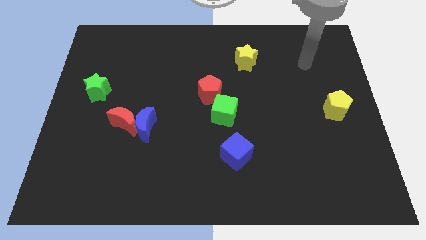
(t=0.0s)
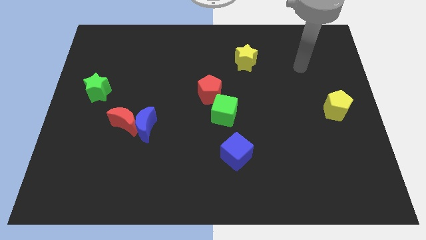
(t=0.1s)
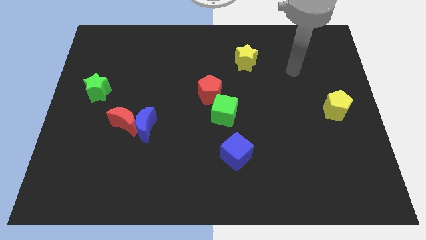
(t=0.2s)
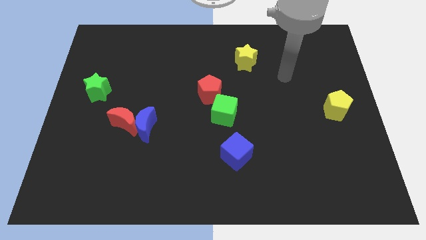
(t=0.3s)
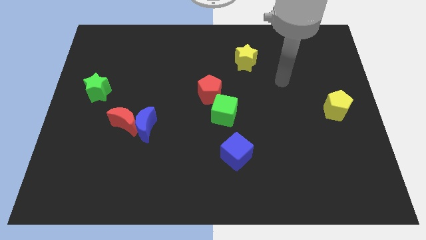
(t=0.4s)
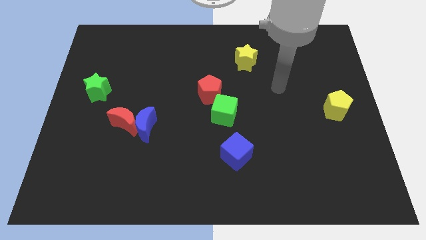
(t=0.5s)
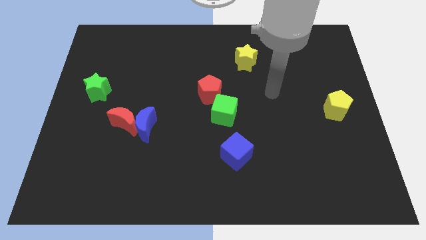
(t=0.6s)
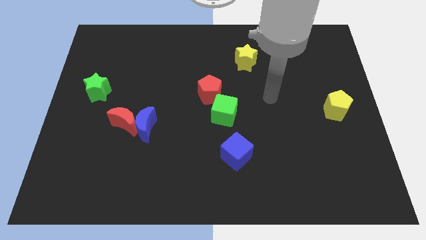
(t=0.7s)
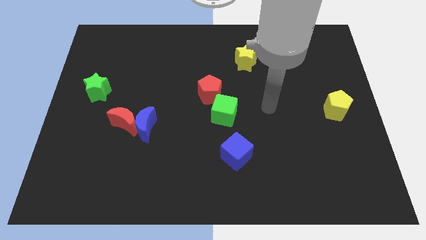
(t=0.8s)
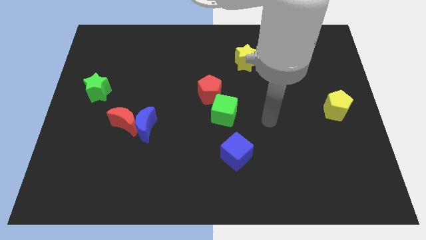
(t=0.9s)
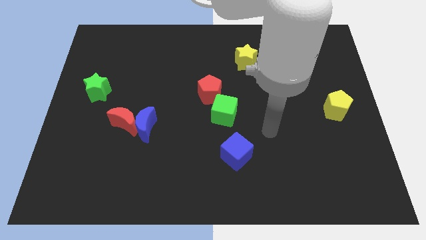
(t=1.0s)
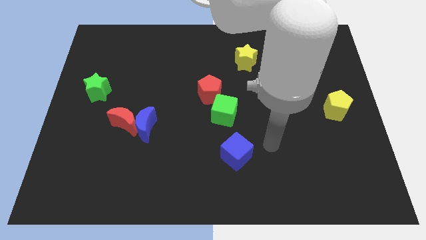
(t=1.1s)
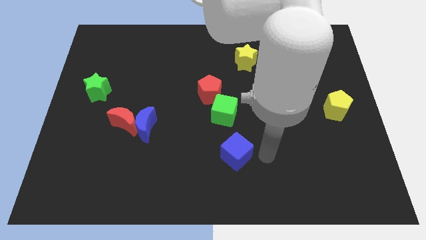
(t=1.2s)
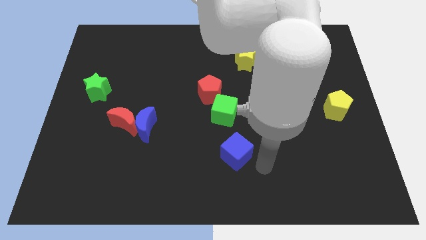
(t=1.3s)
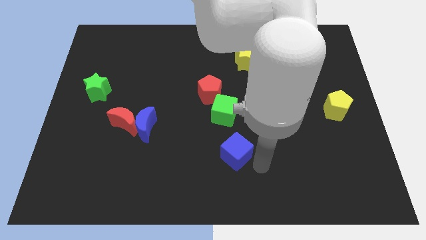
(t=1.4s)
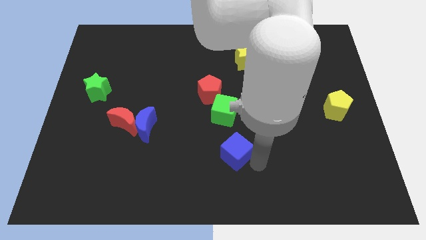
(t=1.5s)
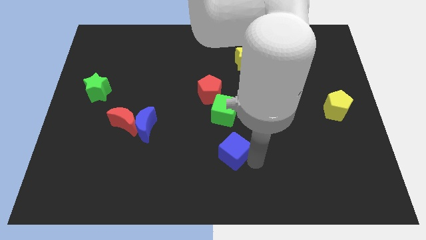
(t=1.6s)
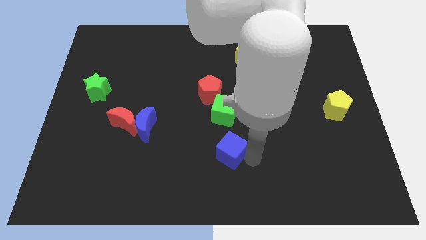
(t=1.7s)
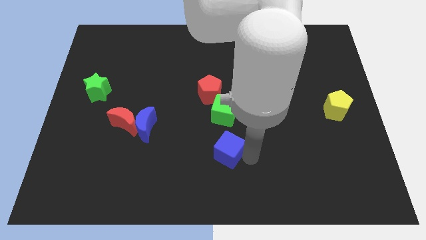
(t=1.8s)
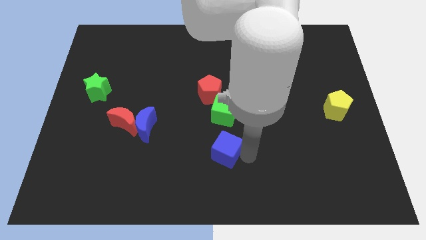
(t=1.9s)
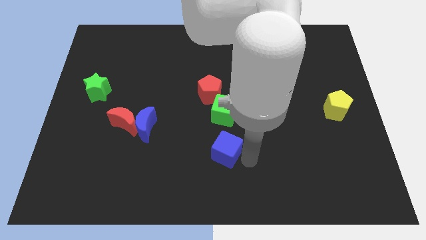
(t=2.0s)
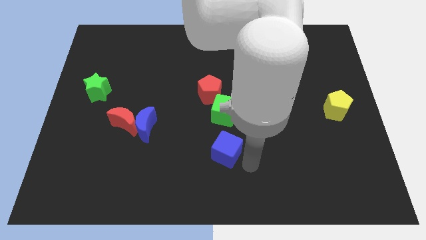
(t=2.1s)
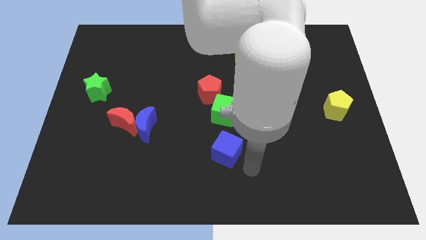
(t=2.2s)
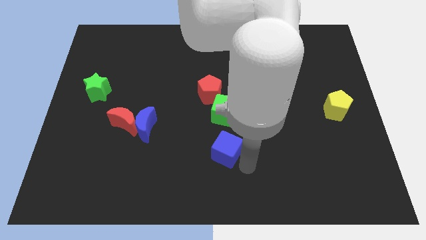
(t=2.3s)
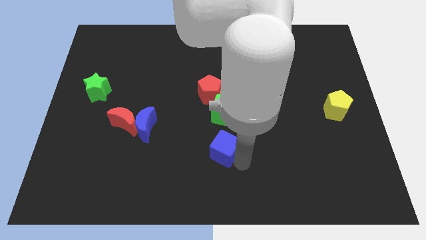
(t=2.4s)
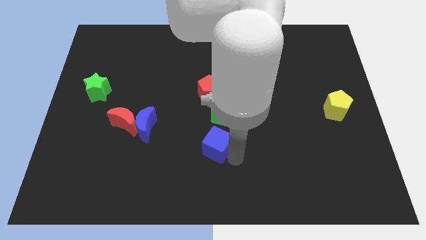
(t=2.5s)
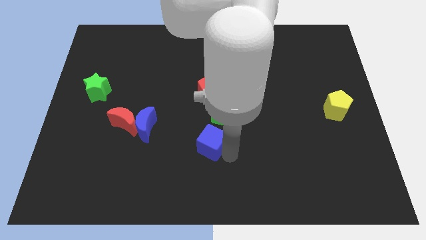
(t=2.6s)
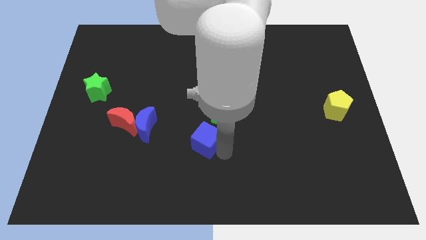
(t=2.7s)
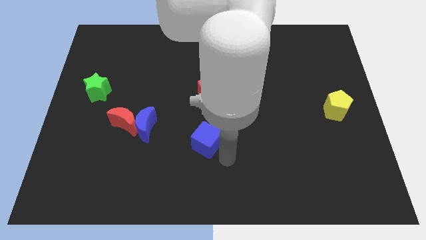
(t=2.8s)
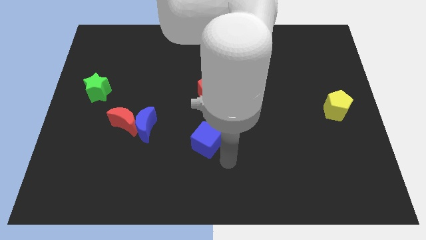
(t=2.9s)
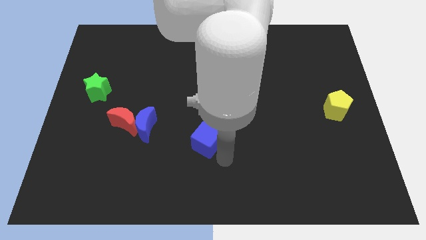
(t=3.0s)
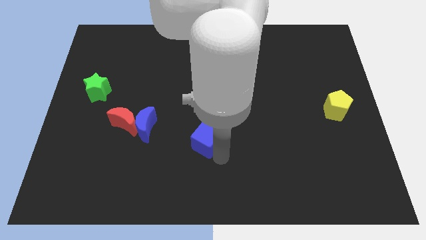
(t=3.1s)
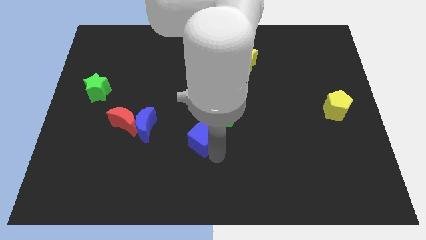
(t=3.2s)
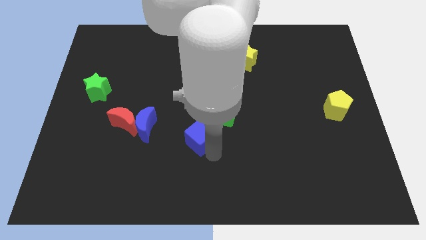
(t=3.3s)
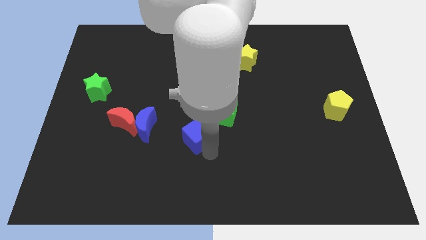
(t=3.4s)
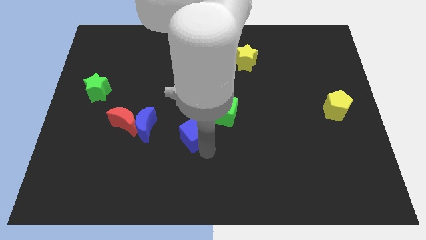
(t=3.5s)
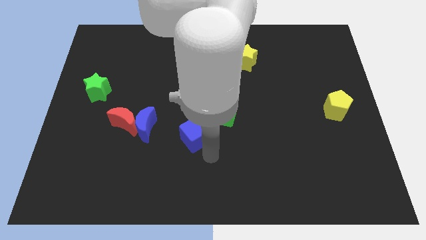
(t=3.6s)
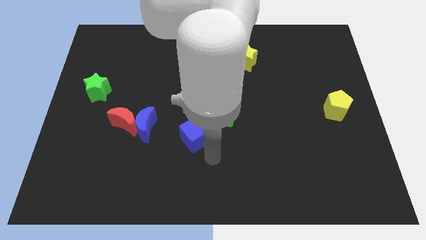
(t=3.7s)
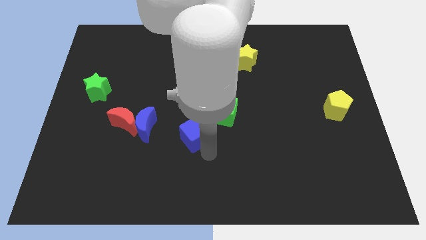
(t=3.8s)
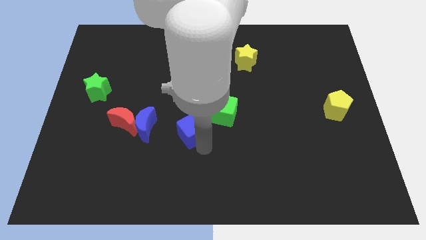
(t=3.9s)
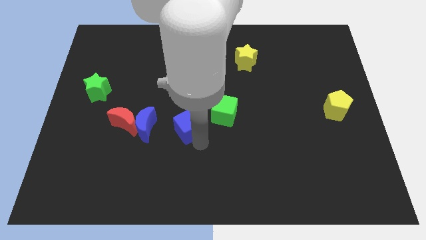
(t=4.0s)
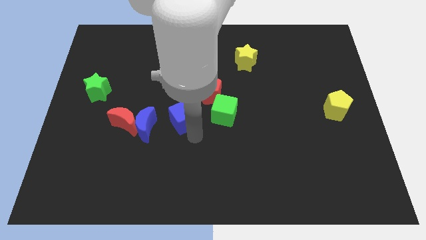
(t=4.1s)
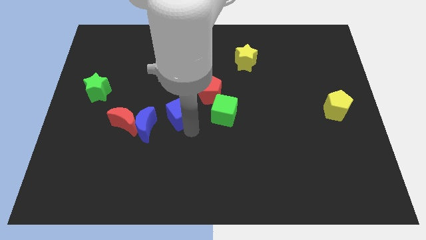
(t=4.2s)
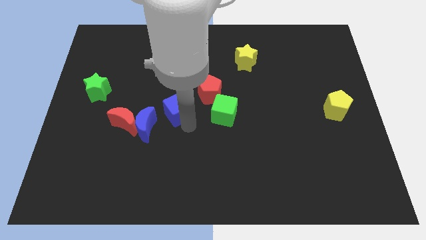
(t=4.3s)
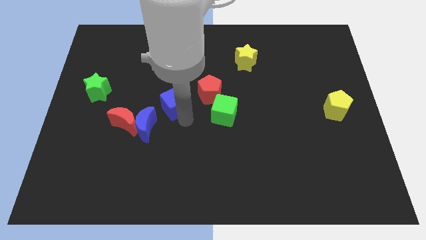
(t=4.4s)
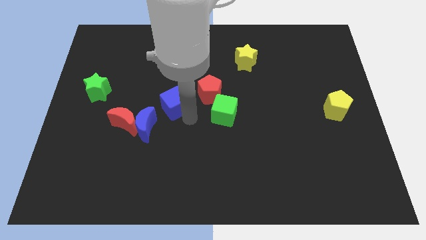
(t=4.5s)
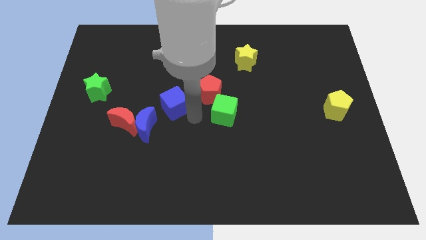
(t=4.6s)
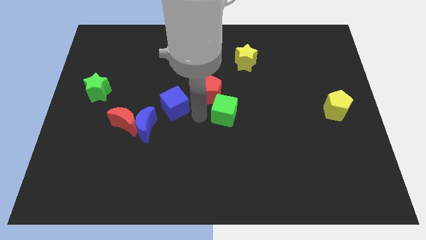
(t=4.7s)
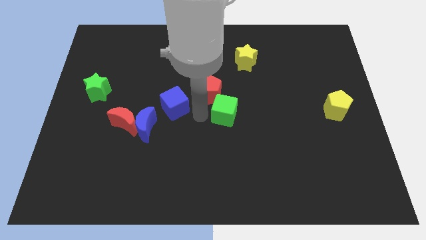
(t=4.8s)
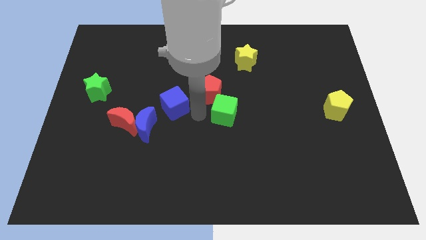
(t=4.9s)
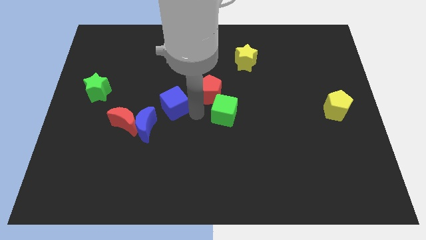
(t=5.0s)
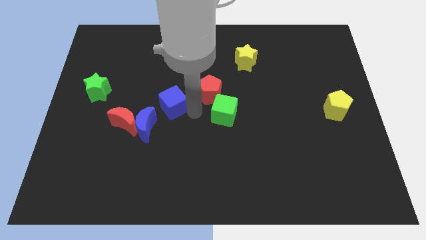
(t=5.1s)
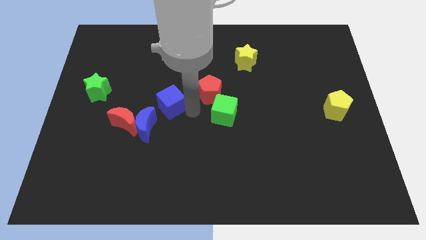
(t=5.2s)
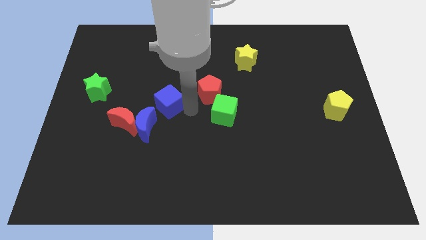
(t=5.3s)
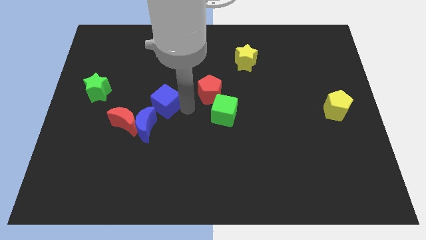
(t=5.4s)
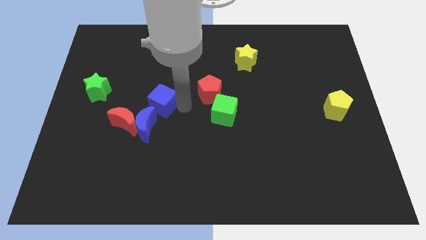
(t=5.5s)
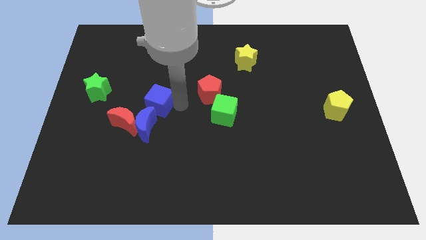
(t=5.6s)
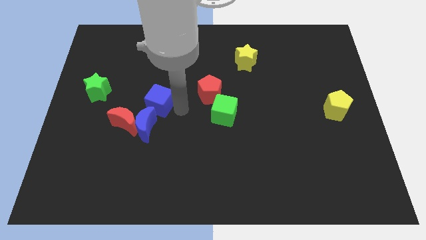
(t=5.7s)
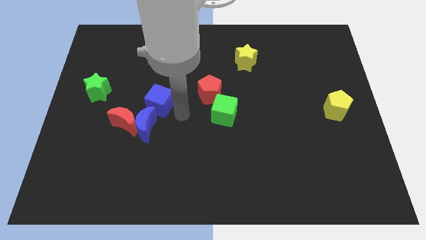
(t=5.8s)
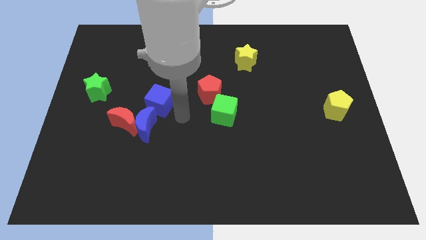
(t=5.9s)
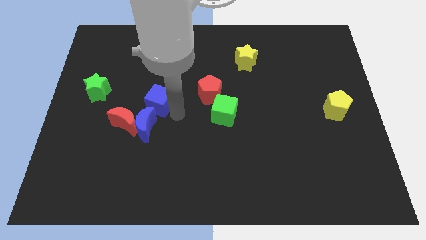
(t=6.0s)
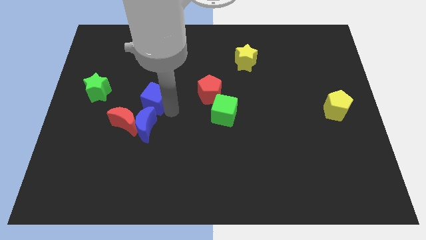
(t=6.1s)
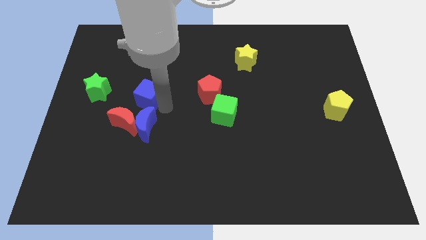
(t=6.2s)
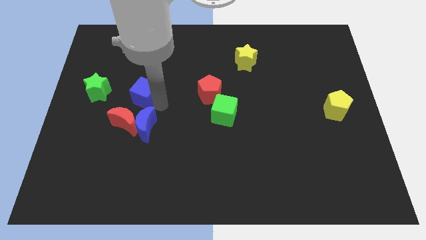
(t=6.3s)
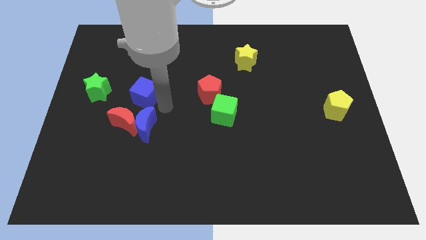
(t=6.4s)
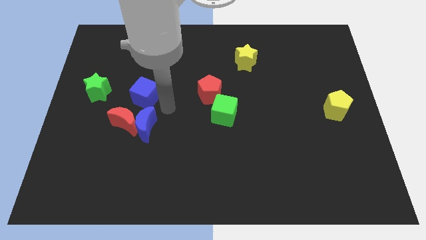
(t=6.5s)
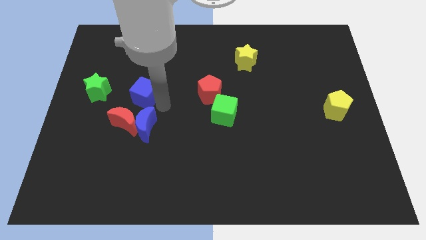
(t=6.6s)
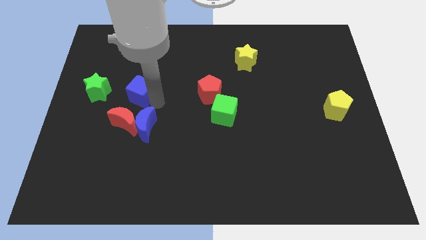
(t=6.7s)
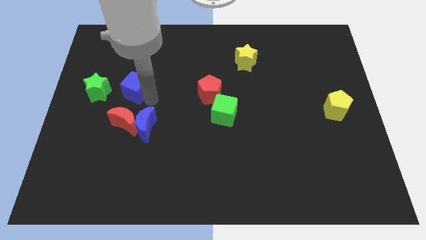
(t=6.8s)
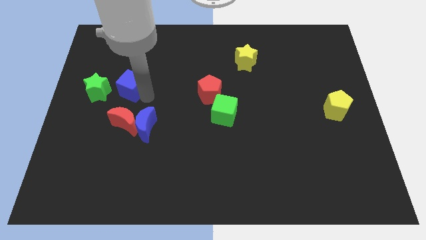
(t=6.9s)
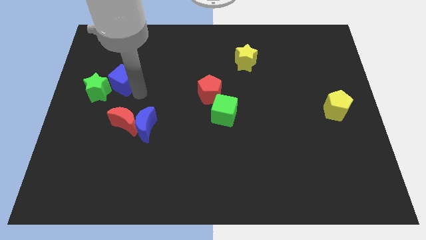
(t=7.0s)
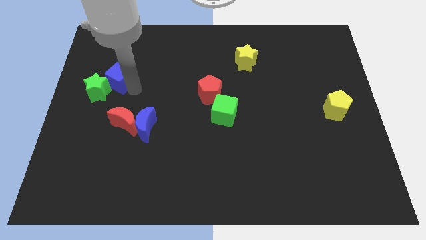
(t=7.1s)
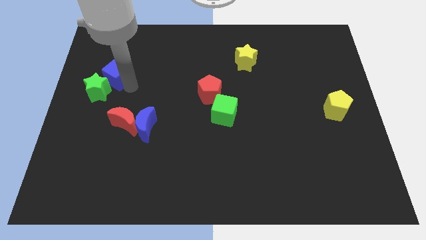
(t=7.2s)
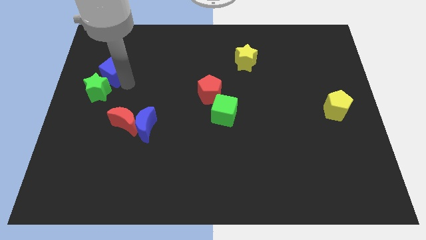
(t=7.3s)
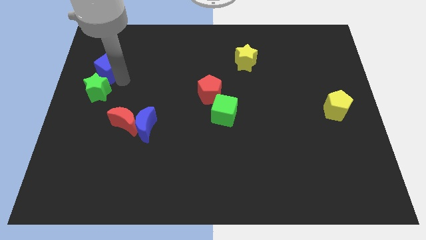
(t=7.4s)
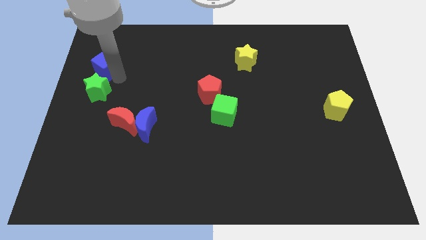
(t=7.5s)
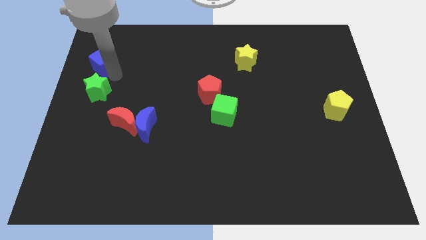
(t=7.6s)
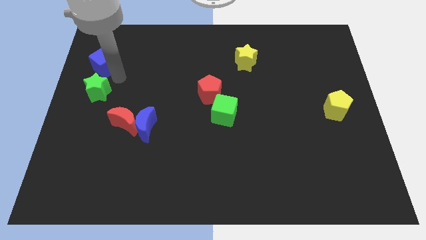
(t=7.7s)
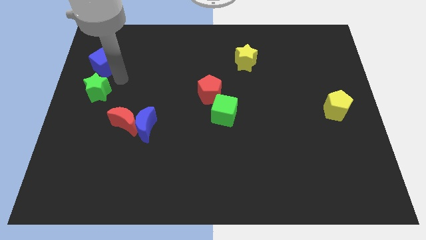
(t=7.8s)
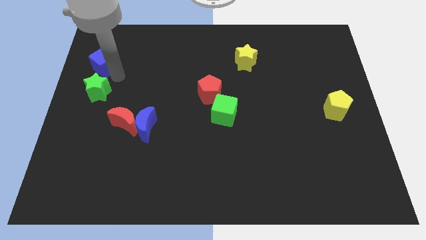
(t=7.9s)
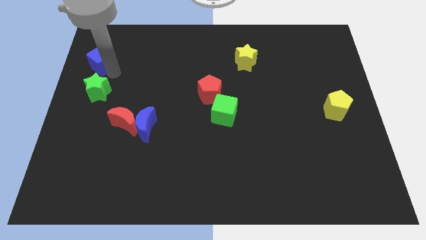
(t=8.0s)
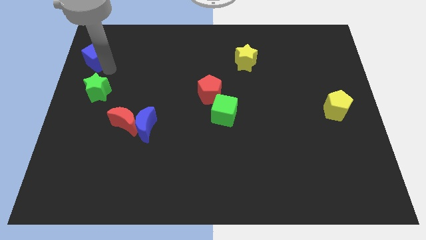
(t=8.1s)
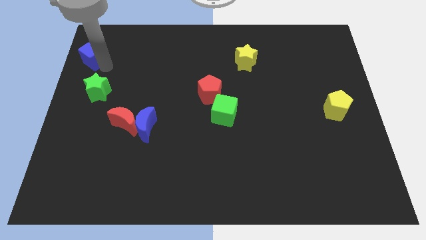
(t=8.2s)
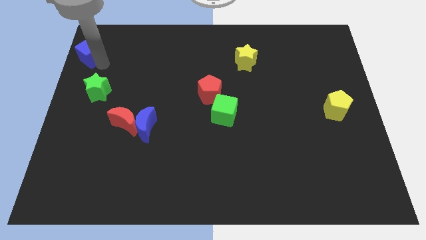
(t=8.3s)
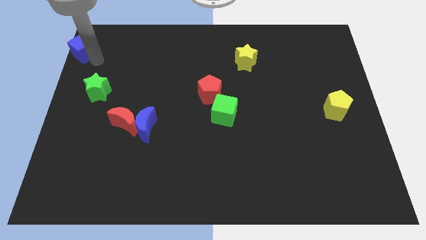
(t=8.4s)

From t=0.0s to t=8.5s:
move the blue cube to the top left of the board
